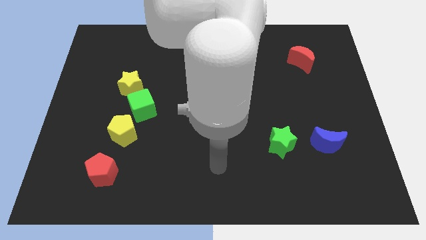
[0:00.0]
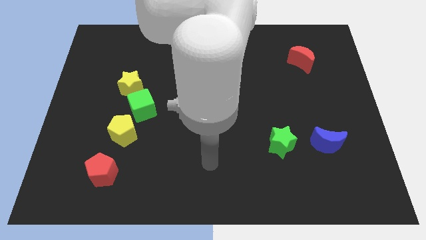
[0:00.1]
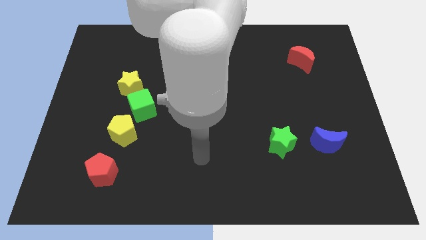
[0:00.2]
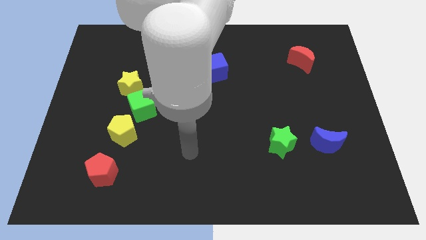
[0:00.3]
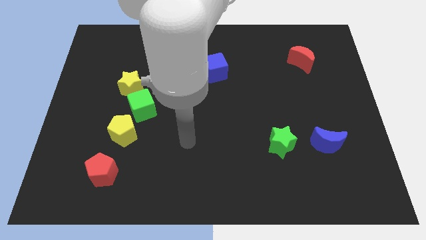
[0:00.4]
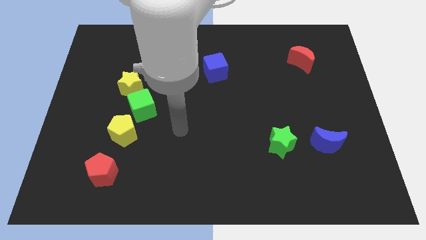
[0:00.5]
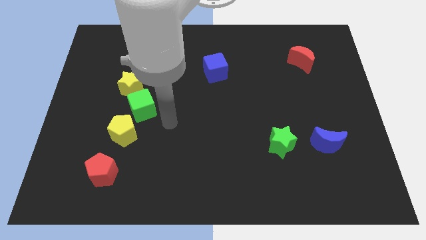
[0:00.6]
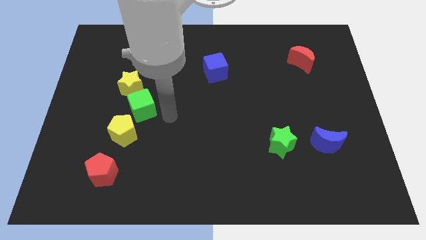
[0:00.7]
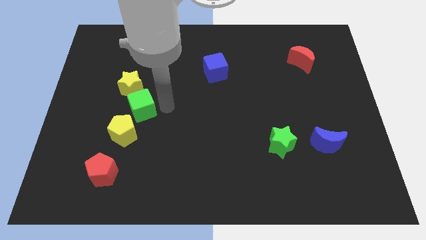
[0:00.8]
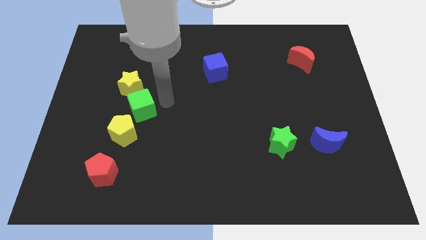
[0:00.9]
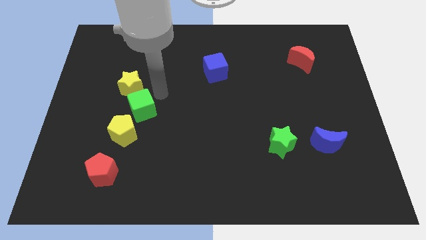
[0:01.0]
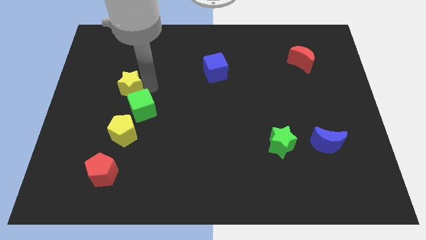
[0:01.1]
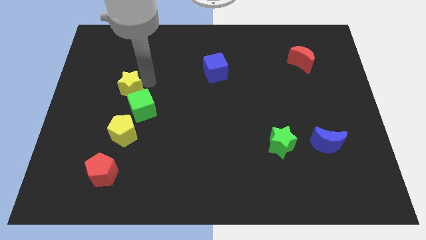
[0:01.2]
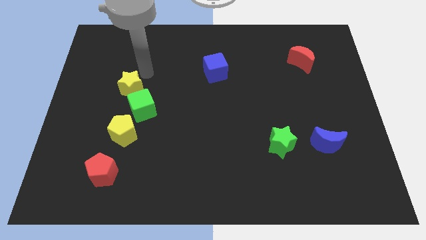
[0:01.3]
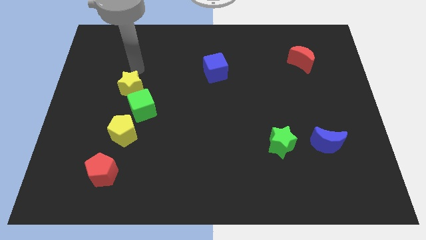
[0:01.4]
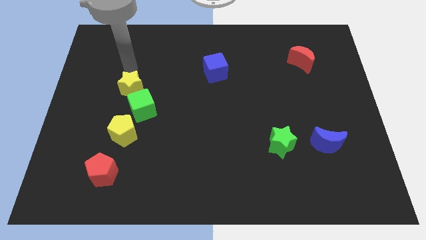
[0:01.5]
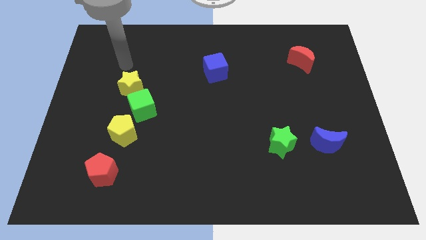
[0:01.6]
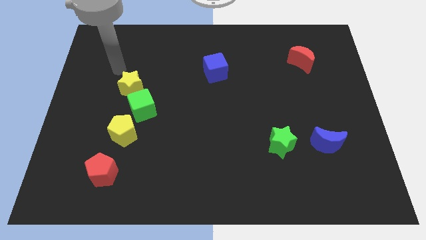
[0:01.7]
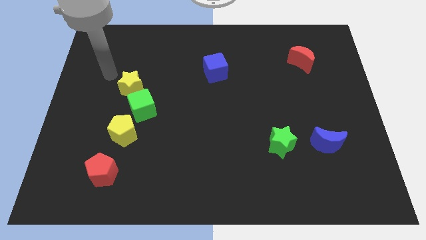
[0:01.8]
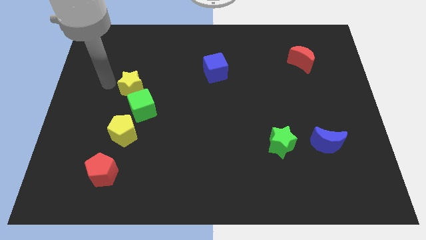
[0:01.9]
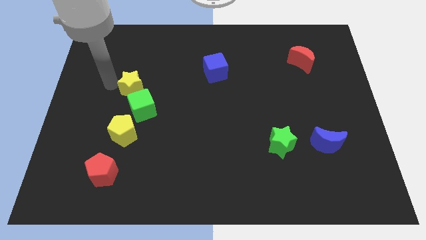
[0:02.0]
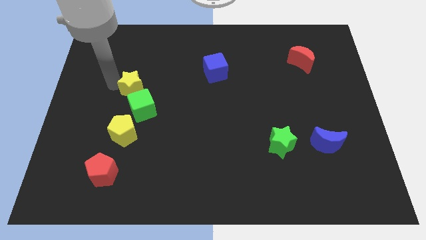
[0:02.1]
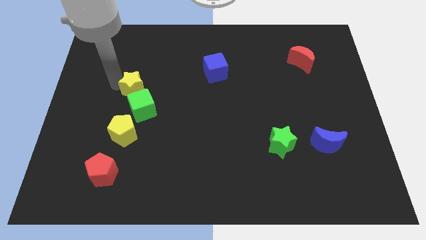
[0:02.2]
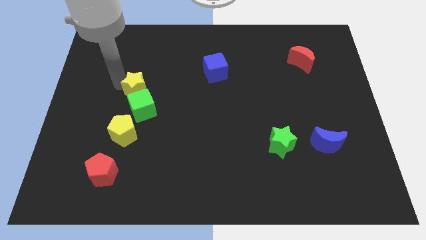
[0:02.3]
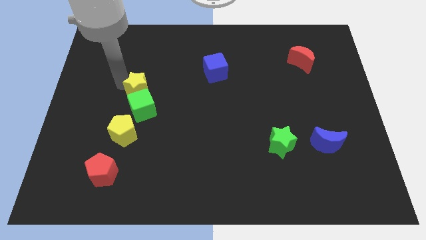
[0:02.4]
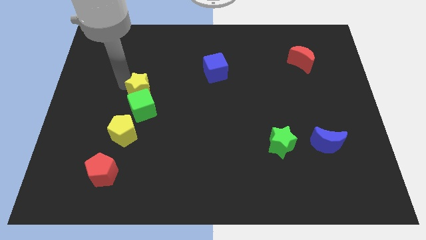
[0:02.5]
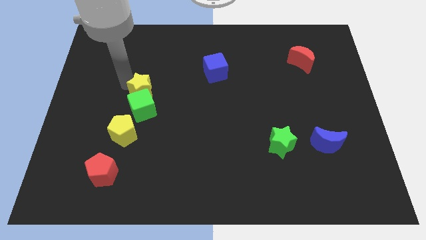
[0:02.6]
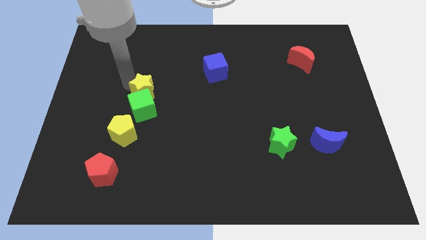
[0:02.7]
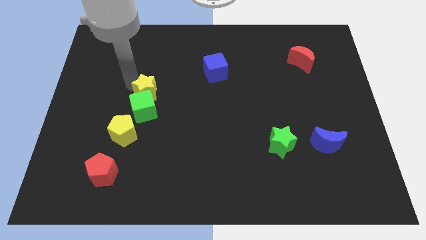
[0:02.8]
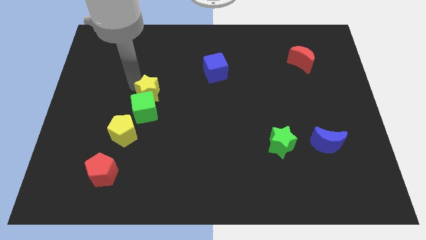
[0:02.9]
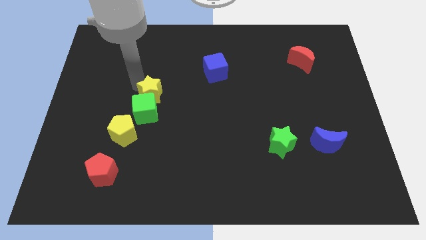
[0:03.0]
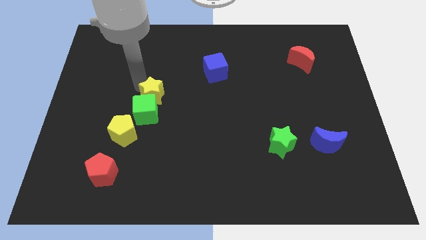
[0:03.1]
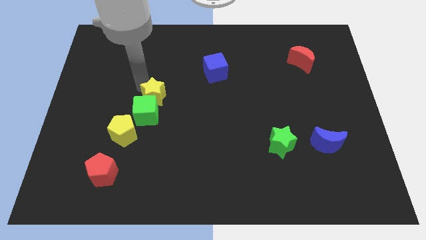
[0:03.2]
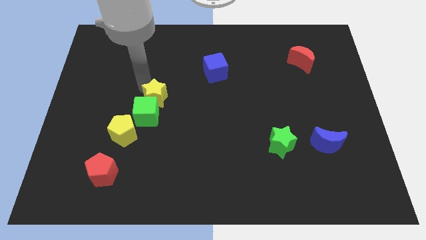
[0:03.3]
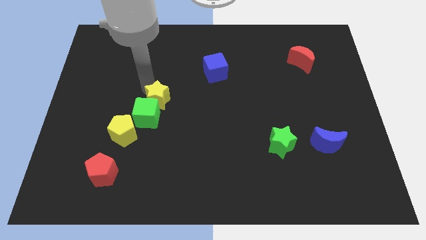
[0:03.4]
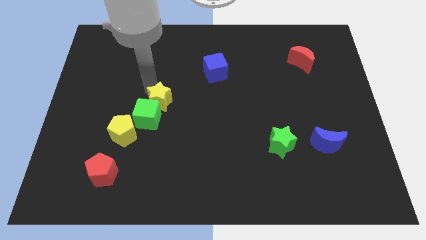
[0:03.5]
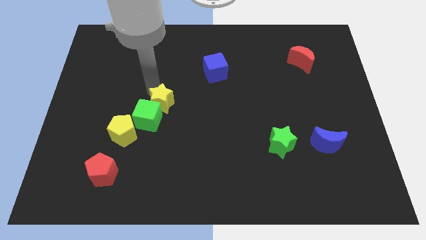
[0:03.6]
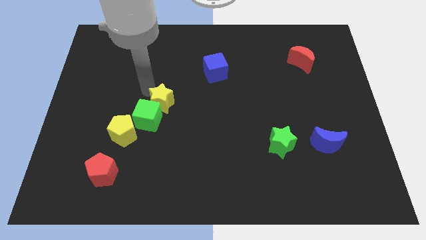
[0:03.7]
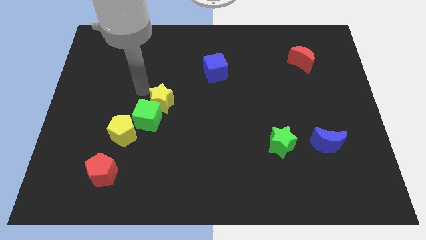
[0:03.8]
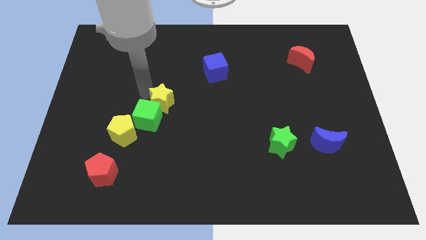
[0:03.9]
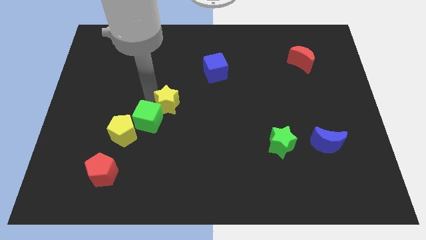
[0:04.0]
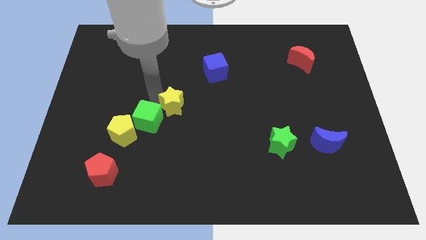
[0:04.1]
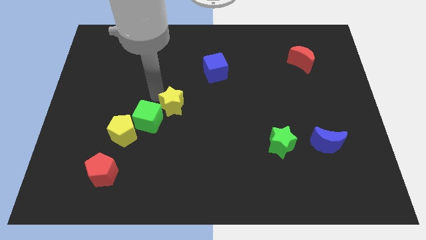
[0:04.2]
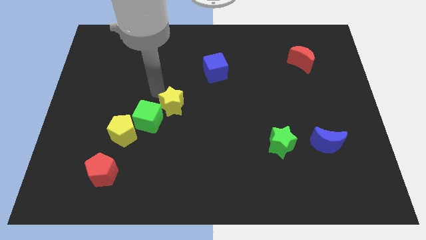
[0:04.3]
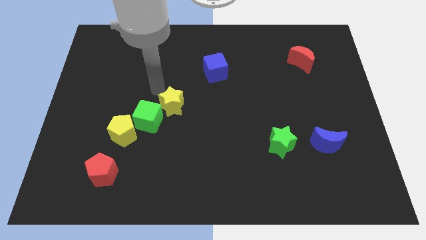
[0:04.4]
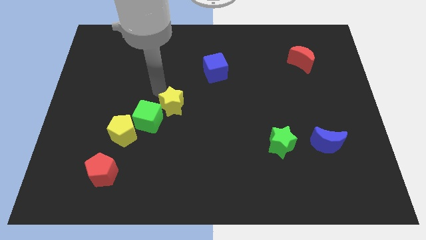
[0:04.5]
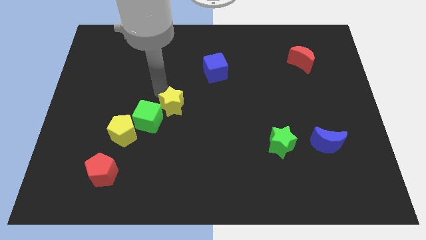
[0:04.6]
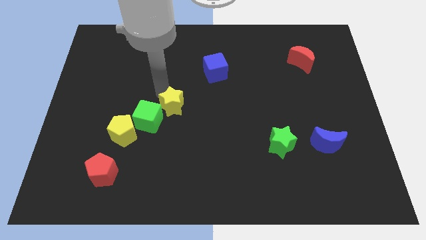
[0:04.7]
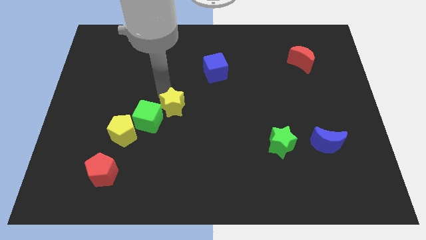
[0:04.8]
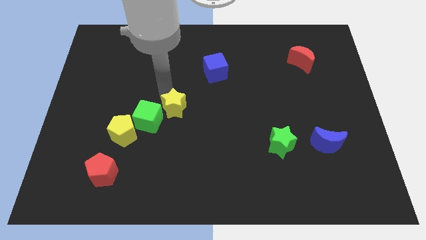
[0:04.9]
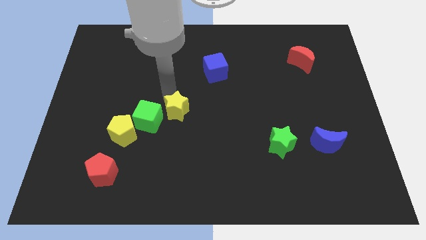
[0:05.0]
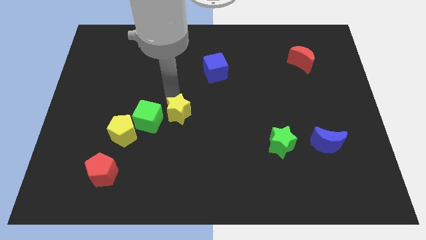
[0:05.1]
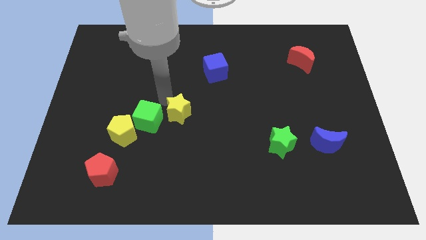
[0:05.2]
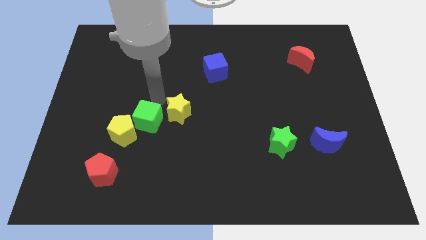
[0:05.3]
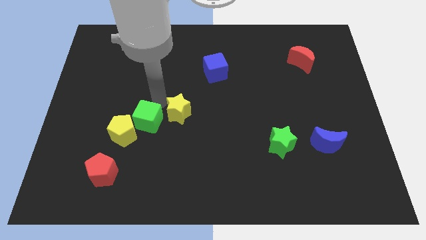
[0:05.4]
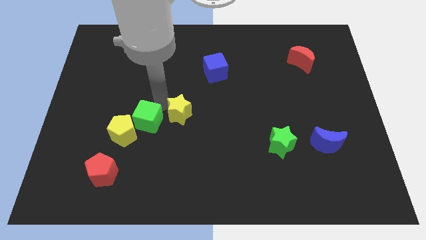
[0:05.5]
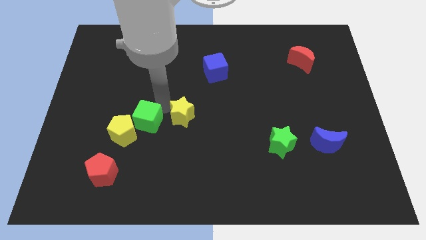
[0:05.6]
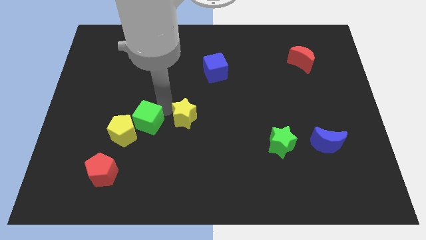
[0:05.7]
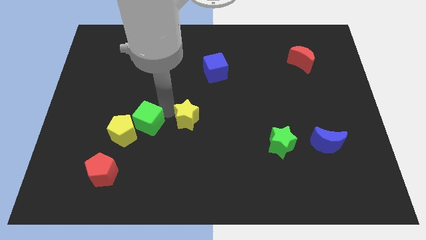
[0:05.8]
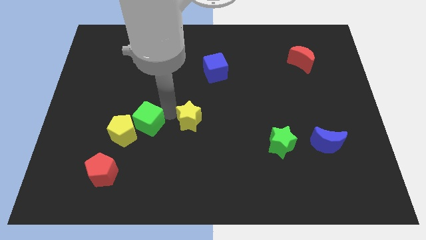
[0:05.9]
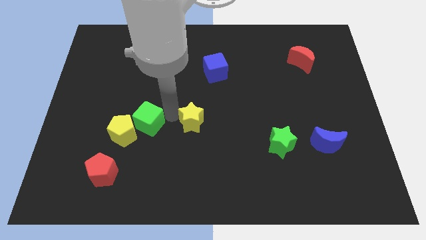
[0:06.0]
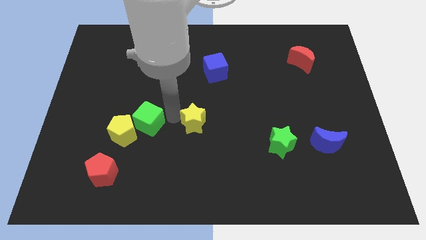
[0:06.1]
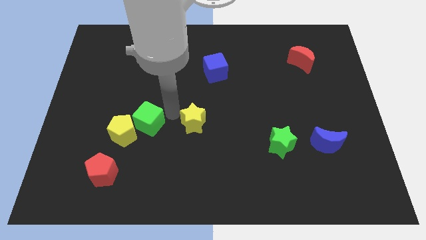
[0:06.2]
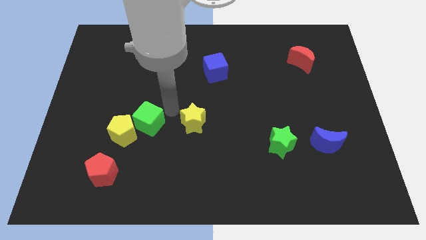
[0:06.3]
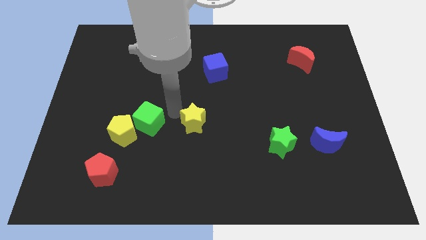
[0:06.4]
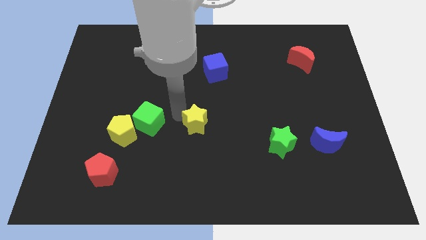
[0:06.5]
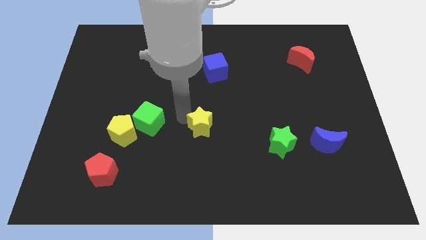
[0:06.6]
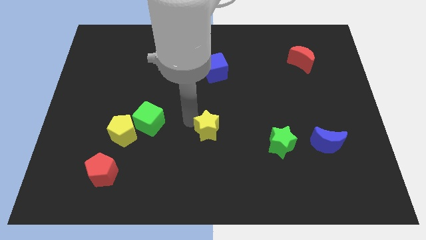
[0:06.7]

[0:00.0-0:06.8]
slide the yellow star down and then right

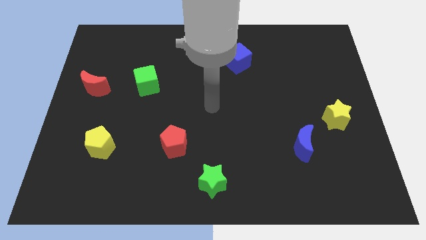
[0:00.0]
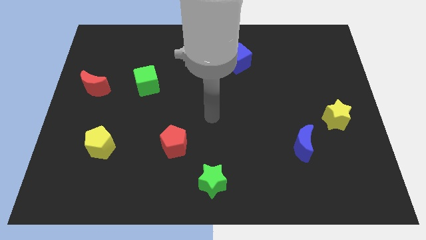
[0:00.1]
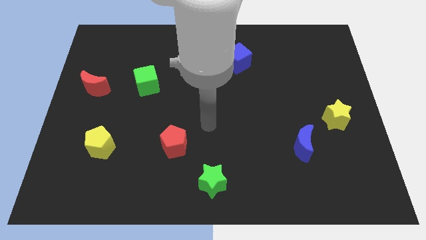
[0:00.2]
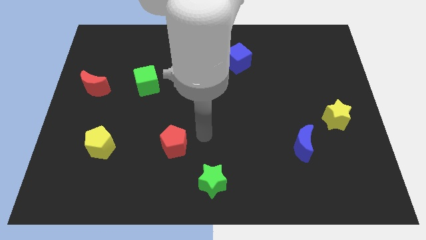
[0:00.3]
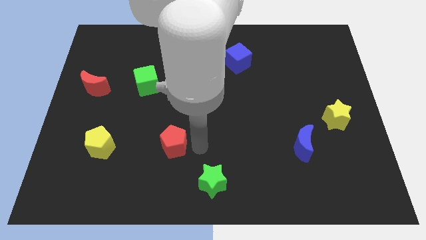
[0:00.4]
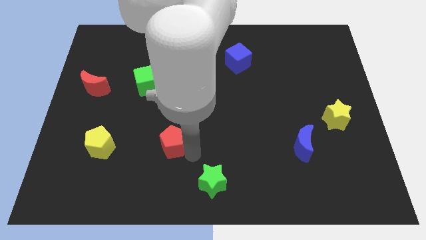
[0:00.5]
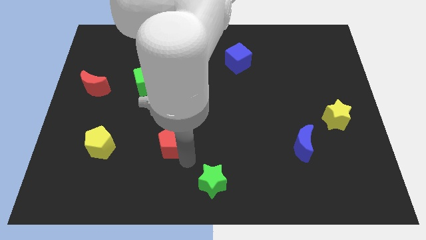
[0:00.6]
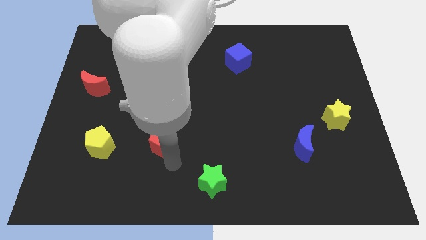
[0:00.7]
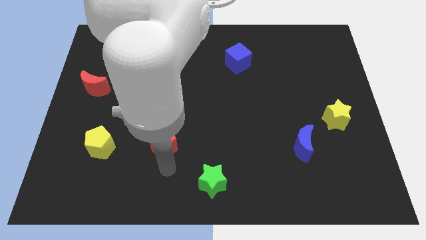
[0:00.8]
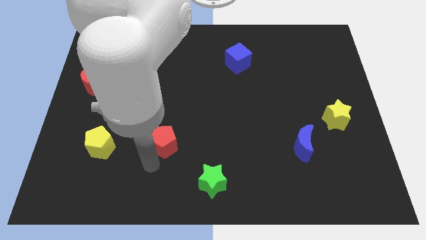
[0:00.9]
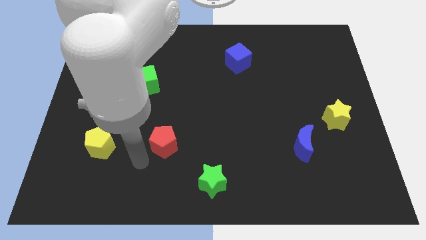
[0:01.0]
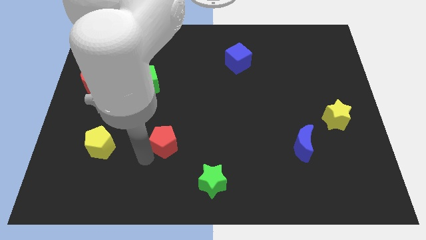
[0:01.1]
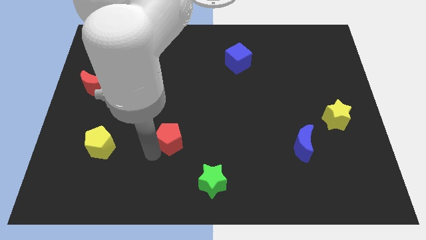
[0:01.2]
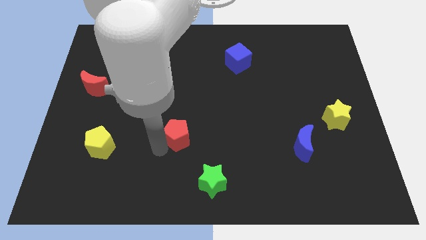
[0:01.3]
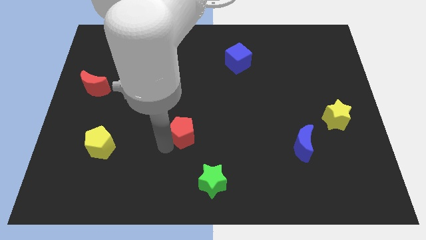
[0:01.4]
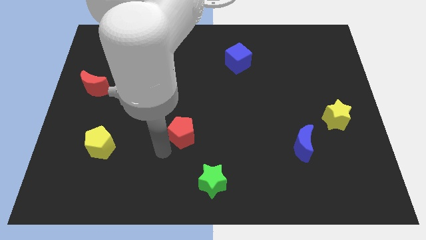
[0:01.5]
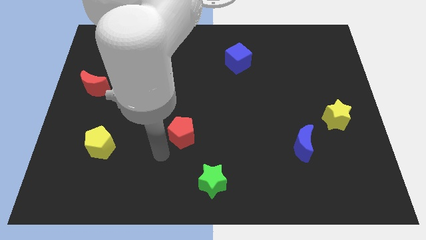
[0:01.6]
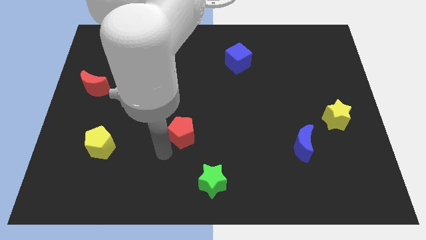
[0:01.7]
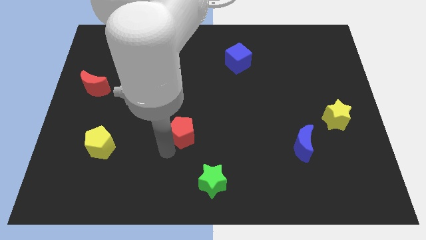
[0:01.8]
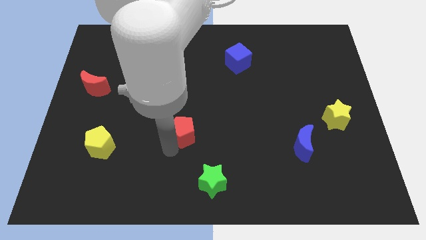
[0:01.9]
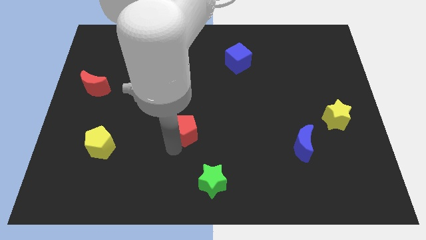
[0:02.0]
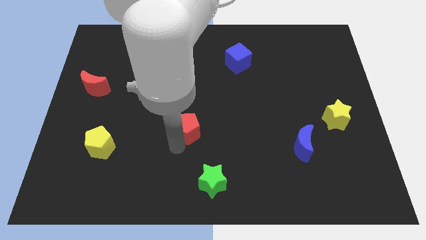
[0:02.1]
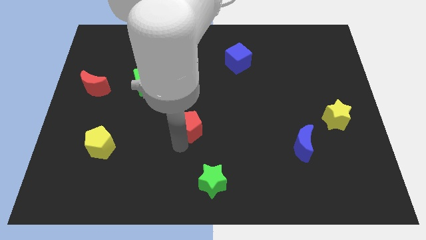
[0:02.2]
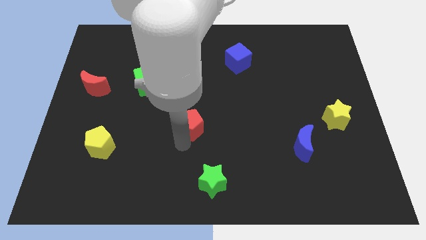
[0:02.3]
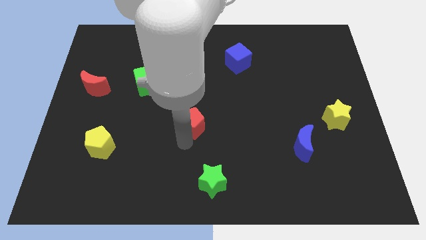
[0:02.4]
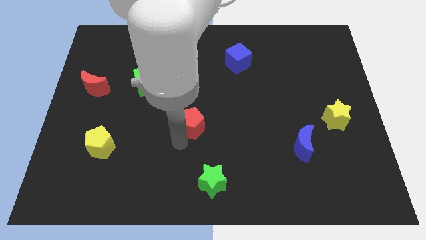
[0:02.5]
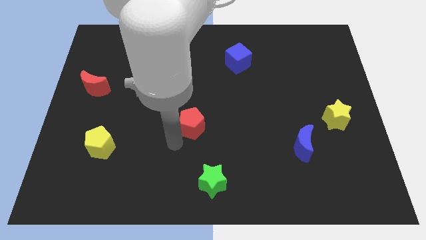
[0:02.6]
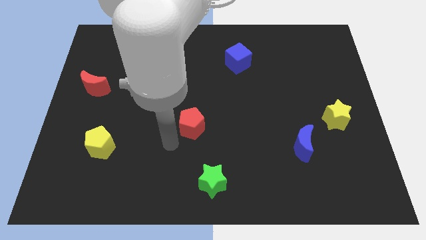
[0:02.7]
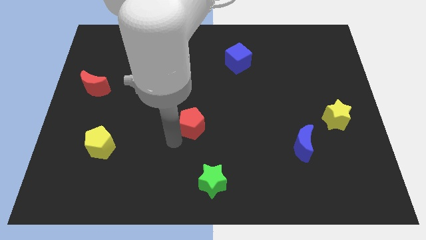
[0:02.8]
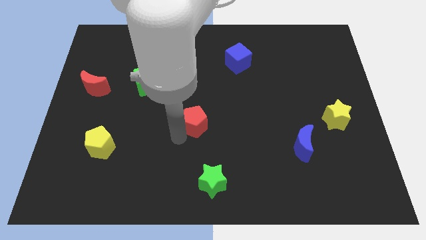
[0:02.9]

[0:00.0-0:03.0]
slide the red pentagon a bit upwards and to the right
